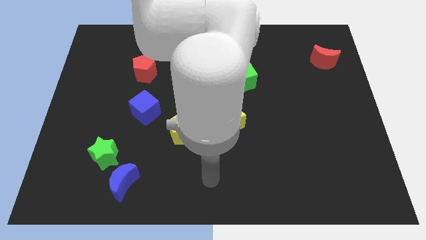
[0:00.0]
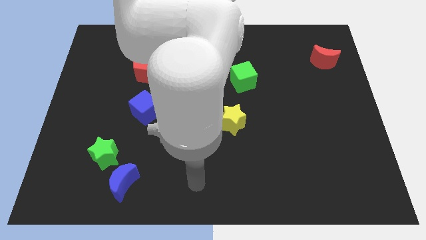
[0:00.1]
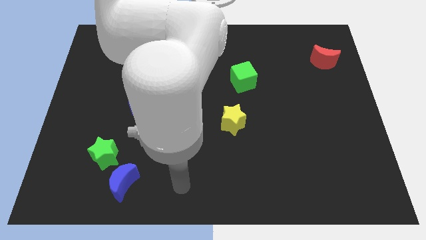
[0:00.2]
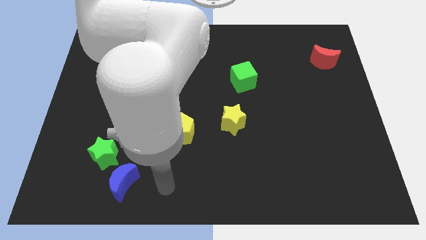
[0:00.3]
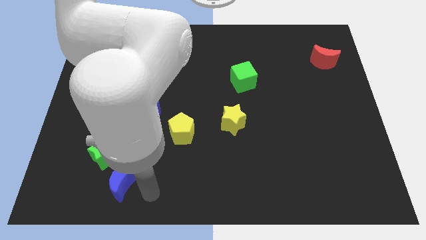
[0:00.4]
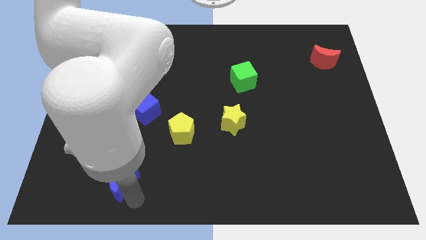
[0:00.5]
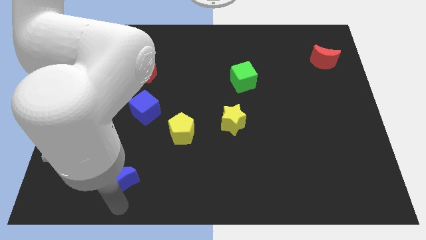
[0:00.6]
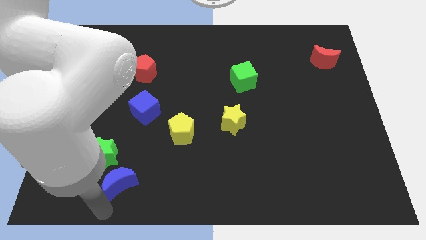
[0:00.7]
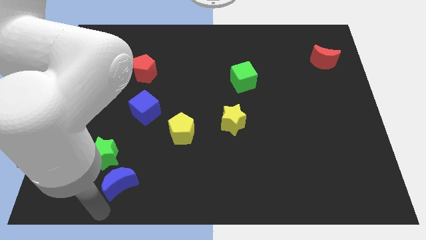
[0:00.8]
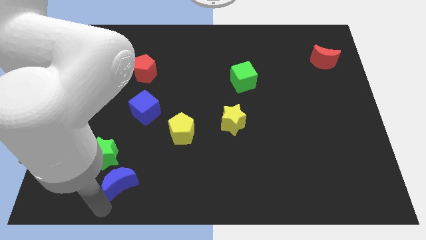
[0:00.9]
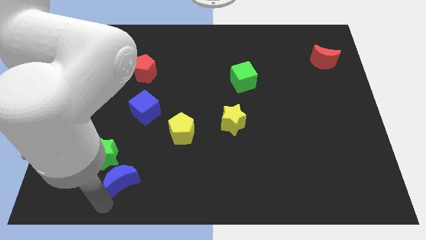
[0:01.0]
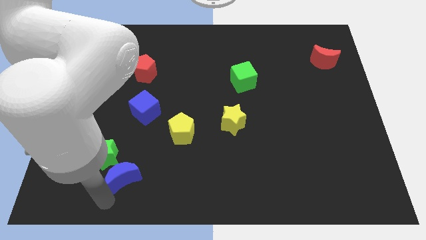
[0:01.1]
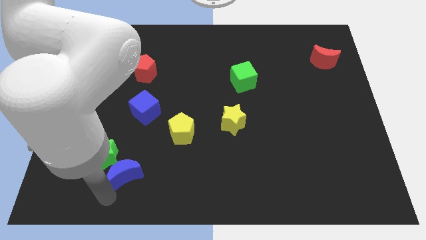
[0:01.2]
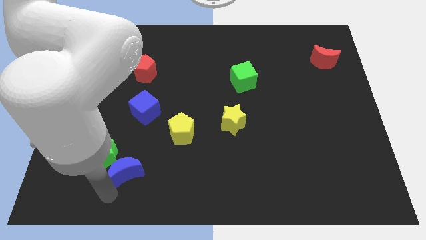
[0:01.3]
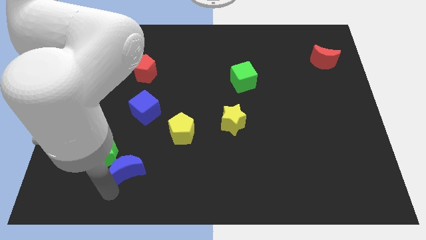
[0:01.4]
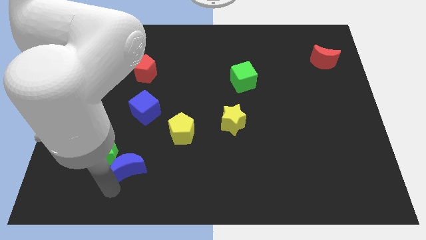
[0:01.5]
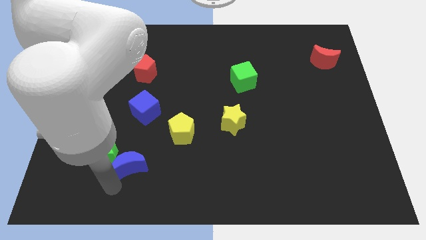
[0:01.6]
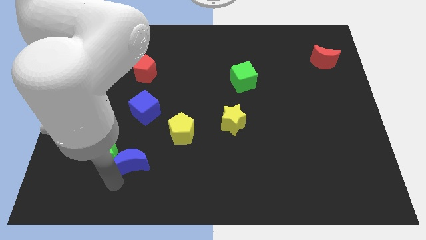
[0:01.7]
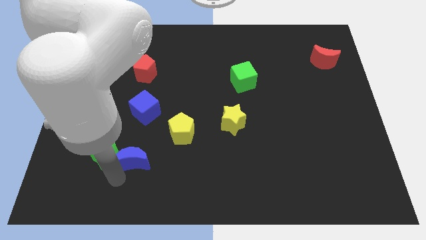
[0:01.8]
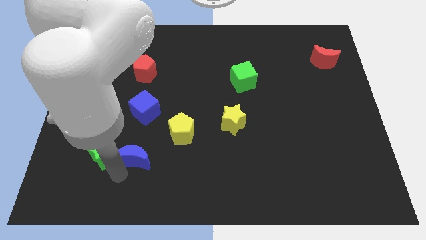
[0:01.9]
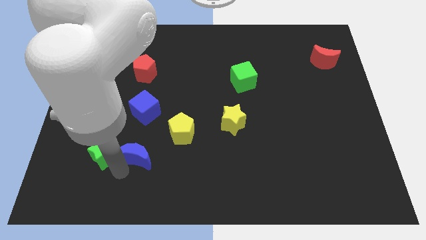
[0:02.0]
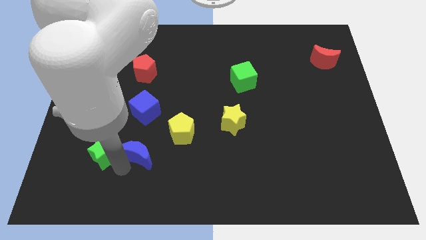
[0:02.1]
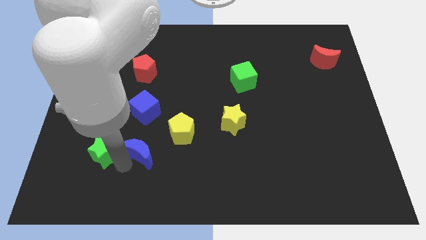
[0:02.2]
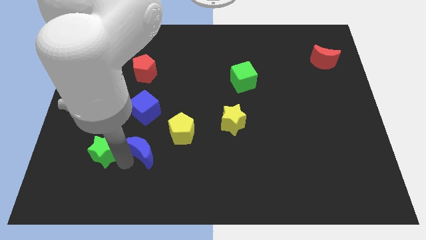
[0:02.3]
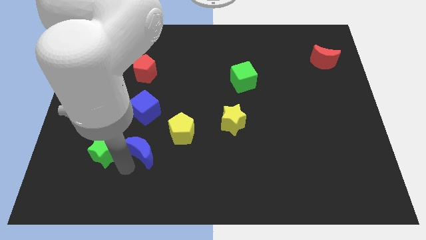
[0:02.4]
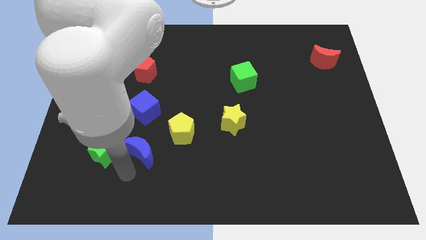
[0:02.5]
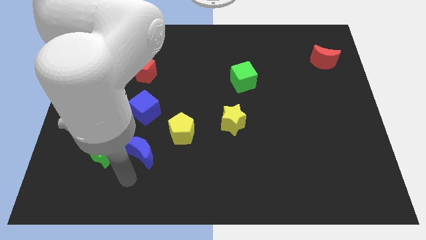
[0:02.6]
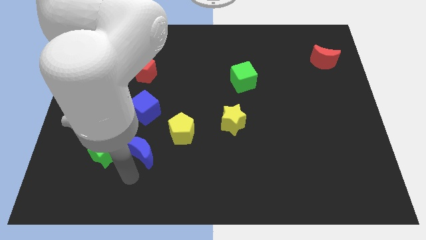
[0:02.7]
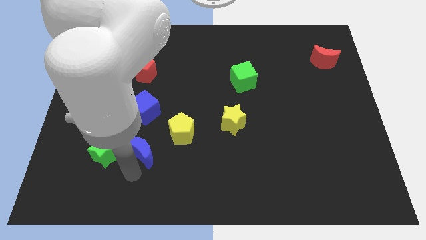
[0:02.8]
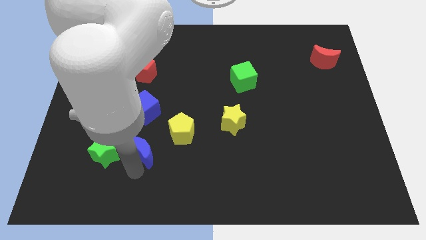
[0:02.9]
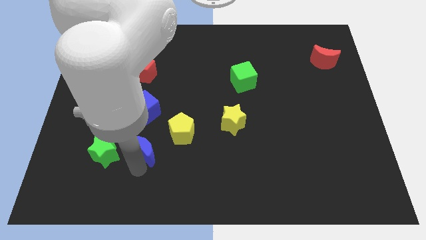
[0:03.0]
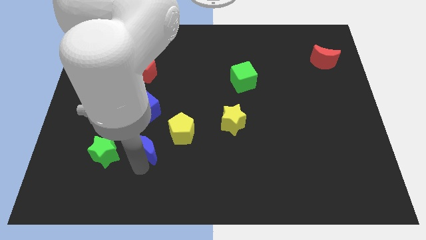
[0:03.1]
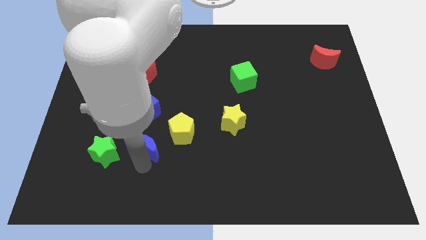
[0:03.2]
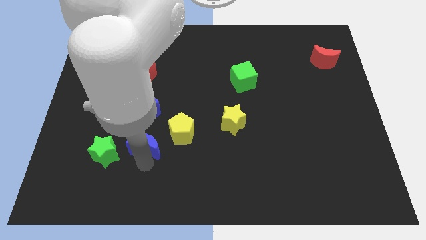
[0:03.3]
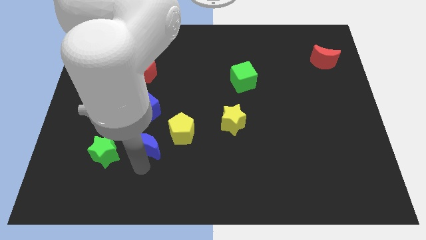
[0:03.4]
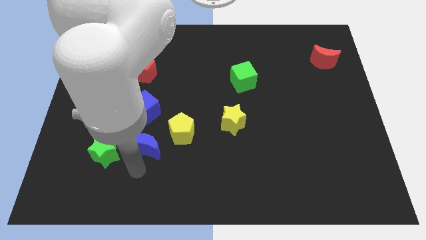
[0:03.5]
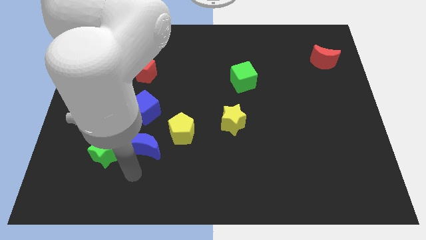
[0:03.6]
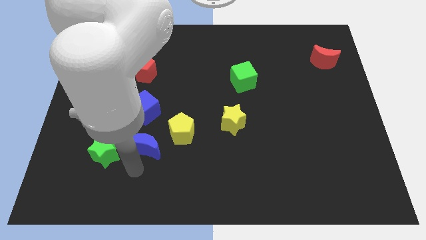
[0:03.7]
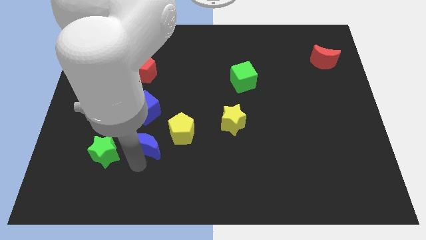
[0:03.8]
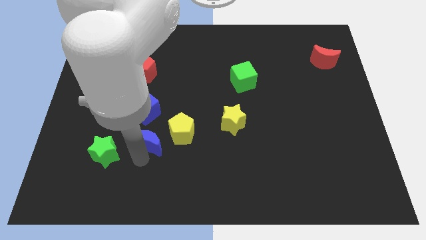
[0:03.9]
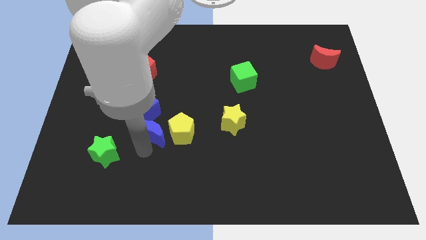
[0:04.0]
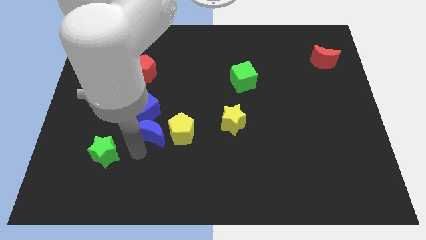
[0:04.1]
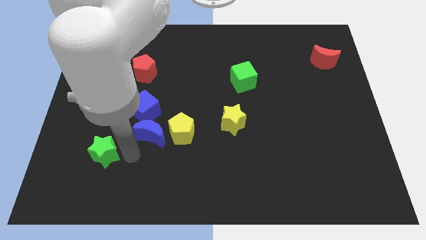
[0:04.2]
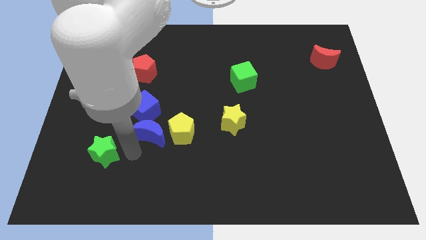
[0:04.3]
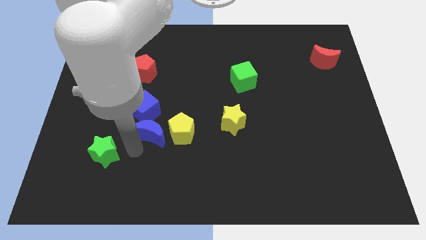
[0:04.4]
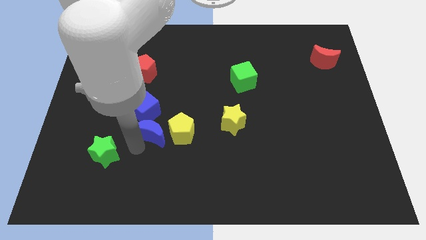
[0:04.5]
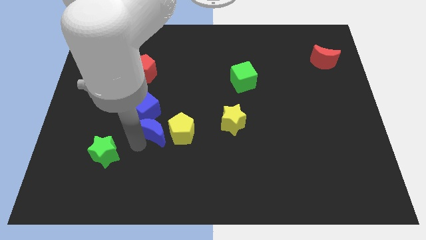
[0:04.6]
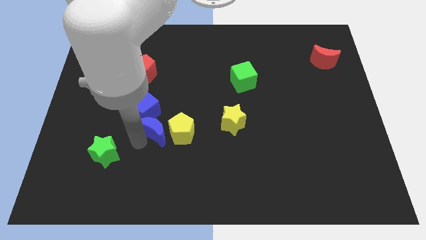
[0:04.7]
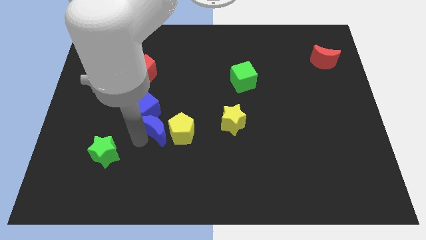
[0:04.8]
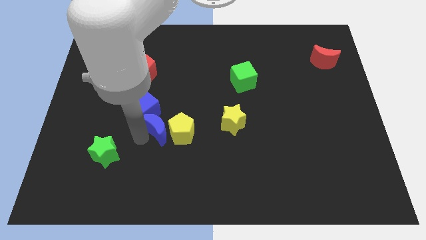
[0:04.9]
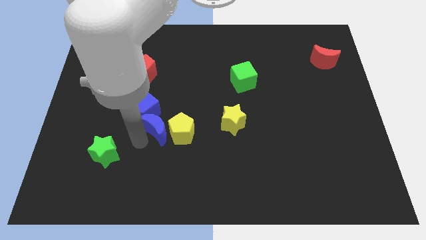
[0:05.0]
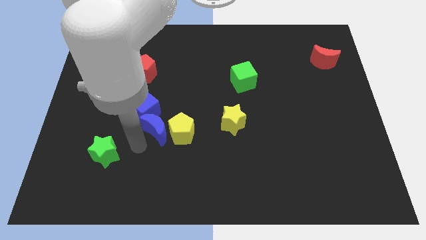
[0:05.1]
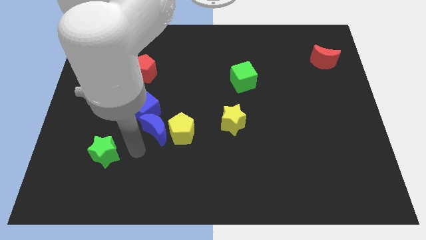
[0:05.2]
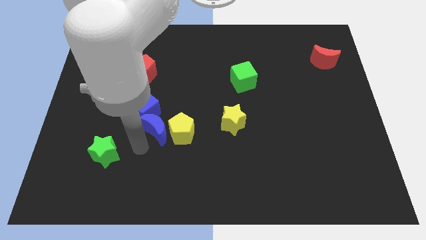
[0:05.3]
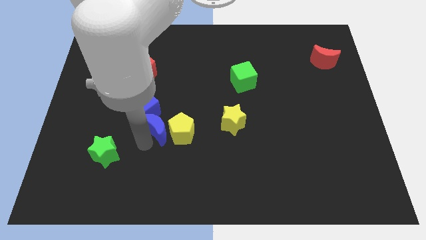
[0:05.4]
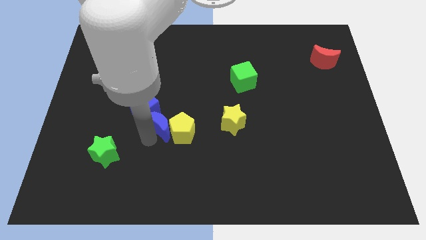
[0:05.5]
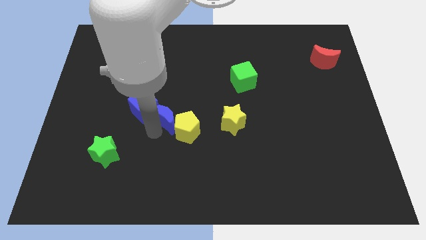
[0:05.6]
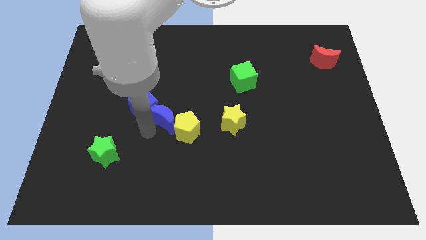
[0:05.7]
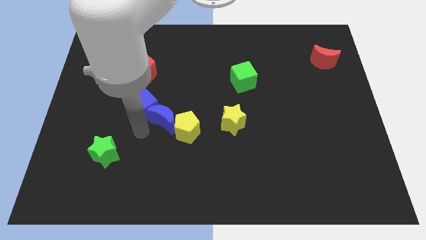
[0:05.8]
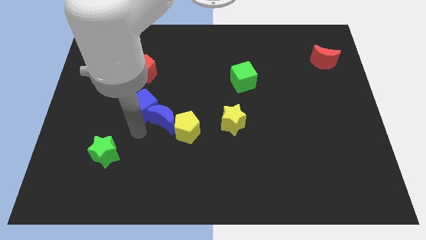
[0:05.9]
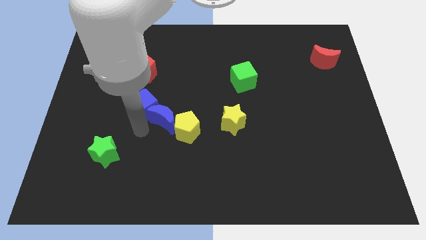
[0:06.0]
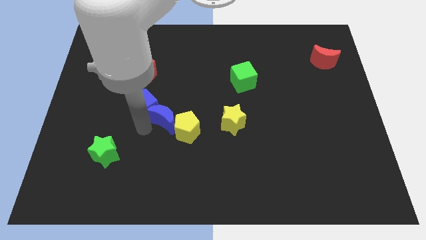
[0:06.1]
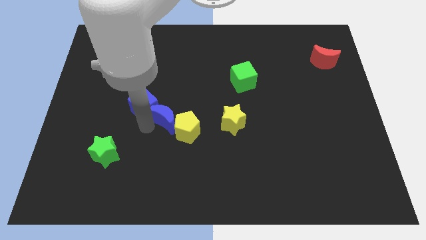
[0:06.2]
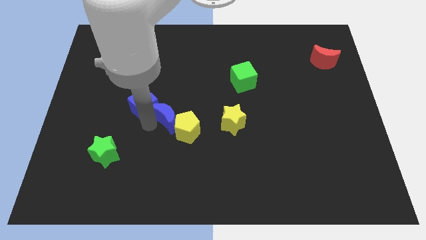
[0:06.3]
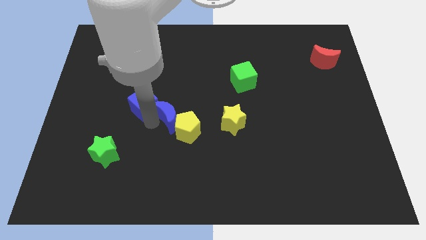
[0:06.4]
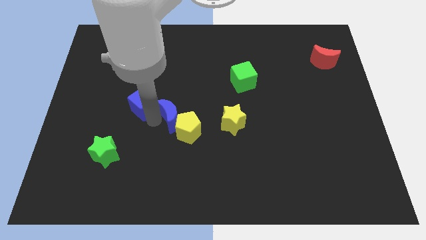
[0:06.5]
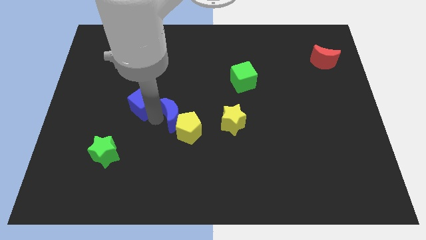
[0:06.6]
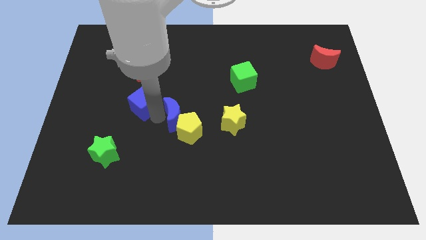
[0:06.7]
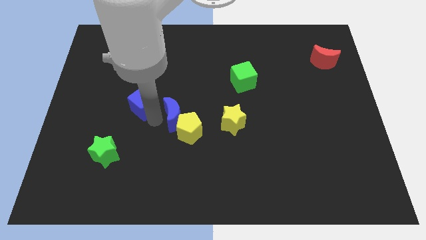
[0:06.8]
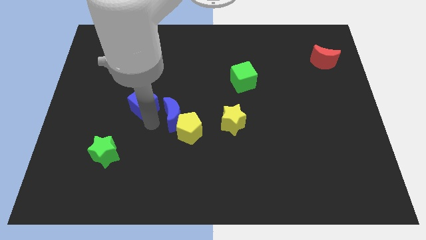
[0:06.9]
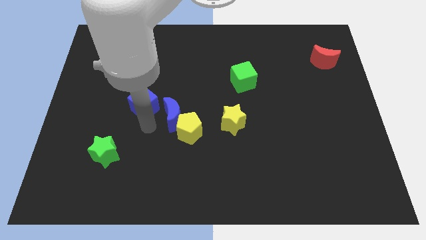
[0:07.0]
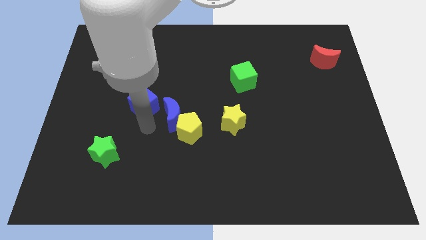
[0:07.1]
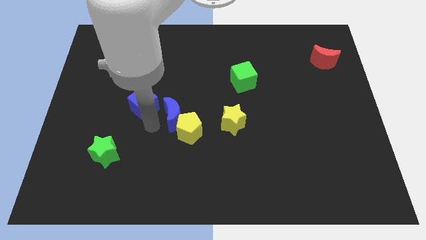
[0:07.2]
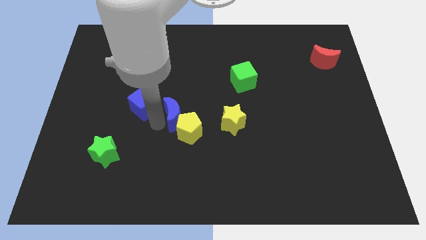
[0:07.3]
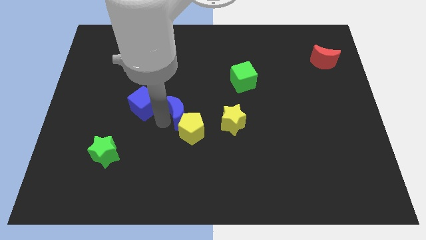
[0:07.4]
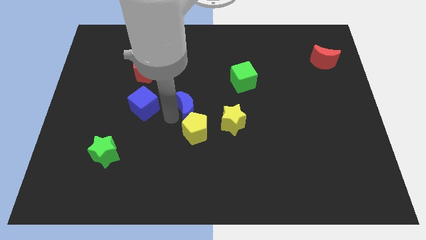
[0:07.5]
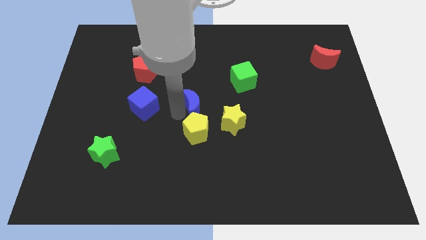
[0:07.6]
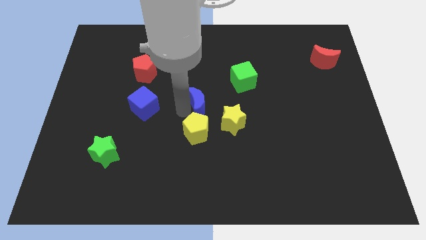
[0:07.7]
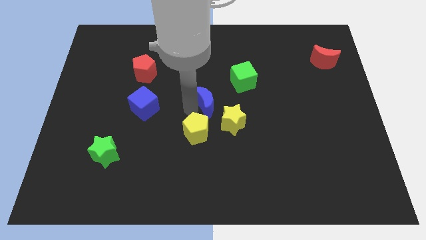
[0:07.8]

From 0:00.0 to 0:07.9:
slide the blue moon to the bottom left of the green cube
